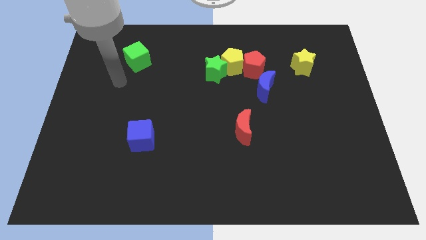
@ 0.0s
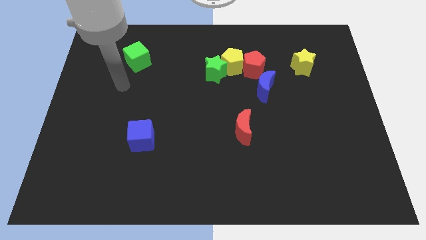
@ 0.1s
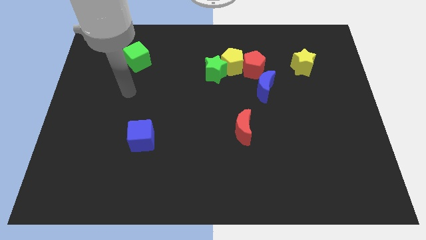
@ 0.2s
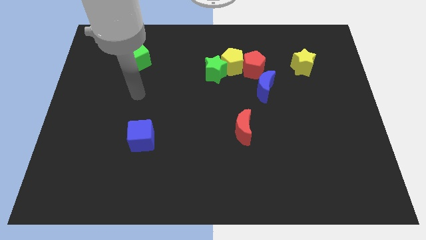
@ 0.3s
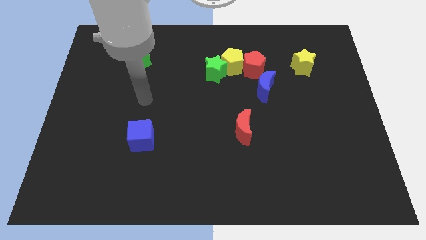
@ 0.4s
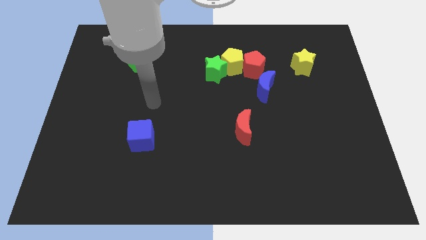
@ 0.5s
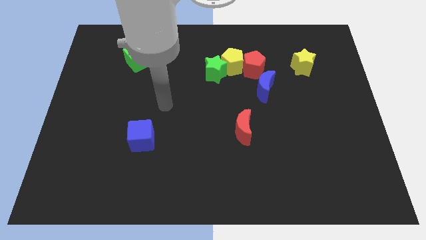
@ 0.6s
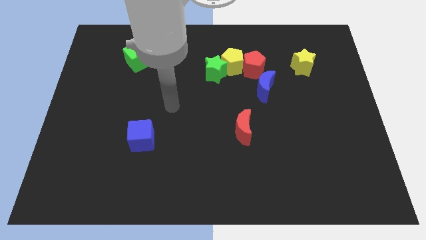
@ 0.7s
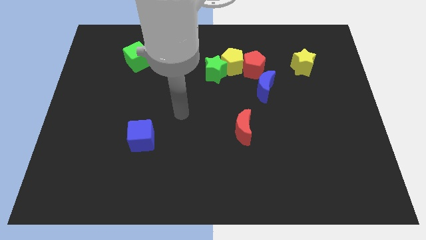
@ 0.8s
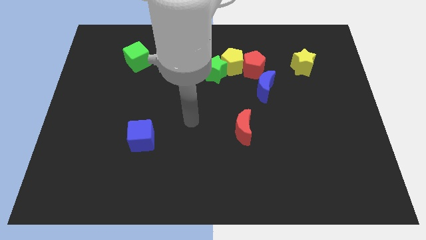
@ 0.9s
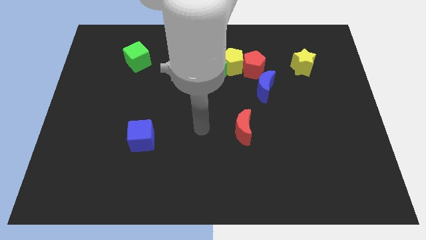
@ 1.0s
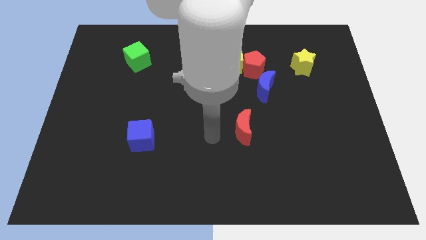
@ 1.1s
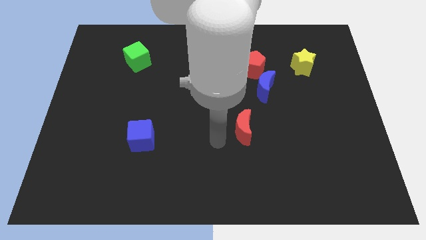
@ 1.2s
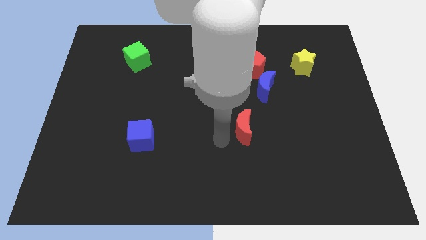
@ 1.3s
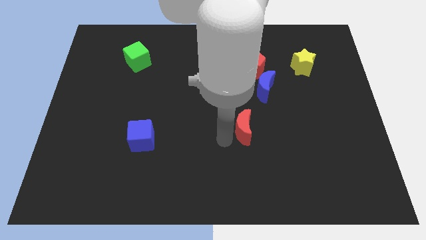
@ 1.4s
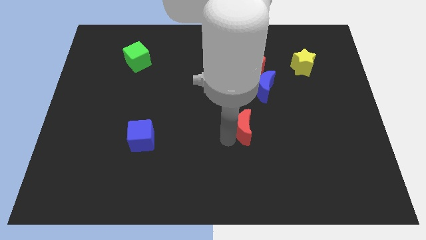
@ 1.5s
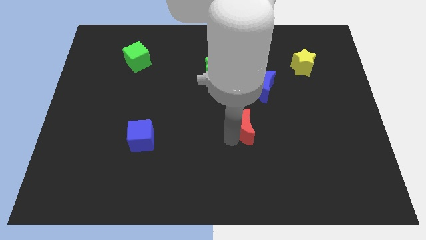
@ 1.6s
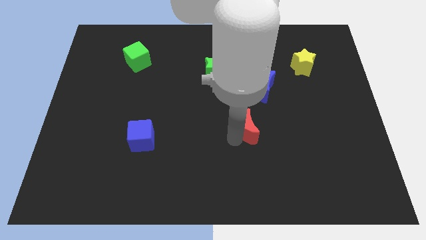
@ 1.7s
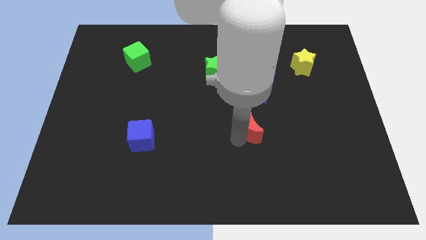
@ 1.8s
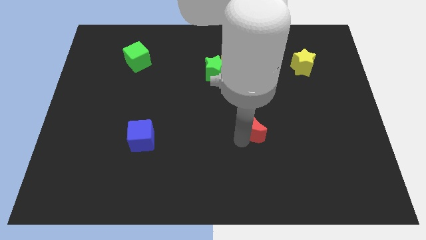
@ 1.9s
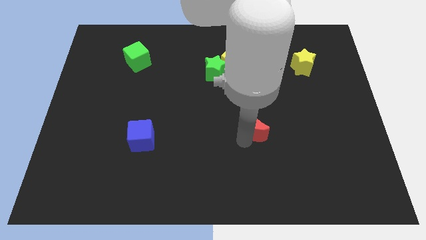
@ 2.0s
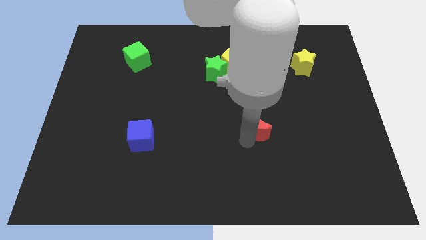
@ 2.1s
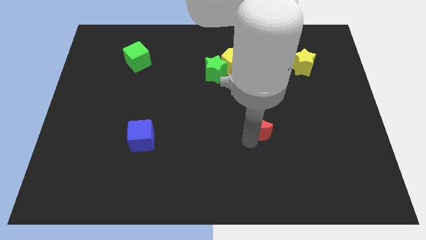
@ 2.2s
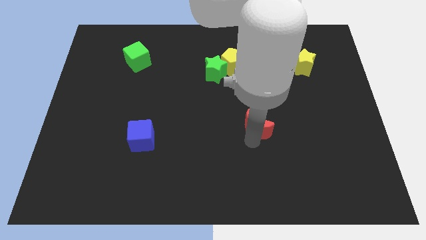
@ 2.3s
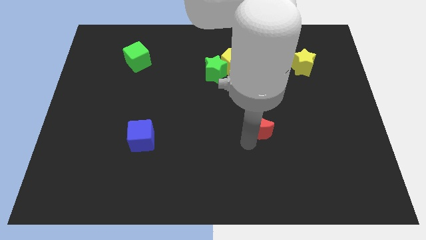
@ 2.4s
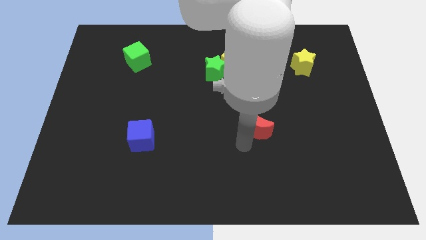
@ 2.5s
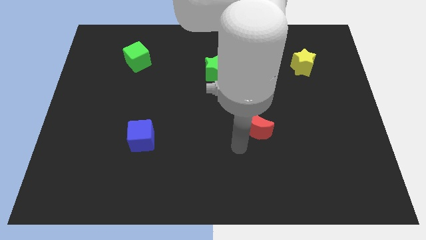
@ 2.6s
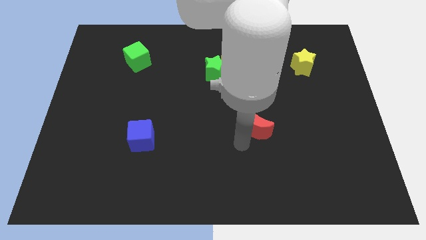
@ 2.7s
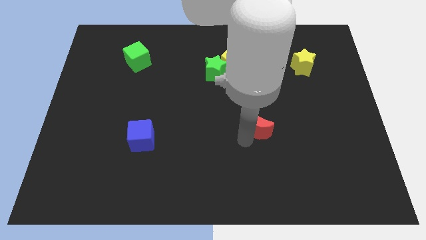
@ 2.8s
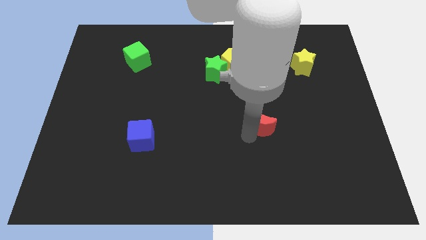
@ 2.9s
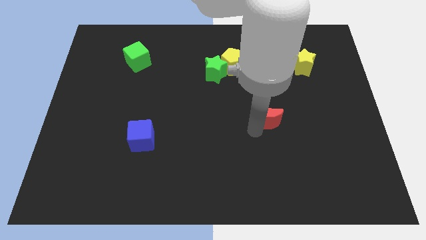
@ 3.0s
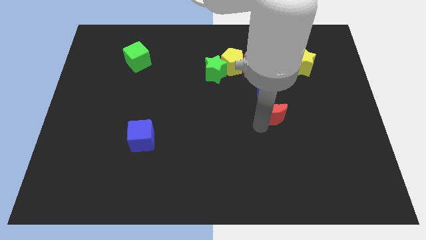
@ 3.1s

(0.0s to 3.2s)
slide the red moon a little bit up and to the right

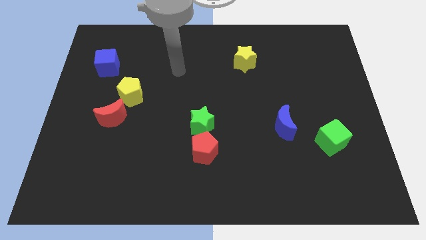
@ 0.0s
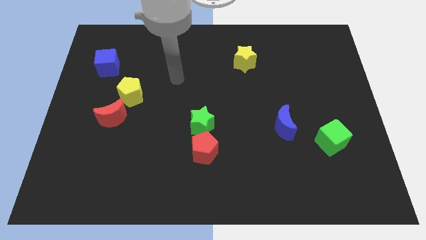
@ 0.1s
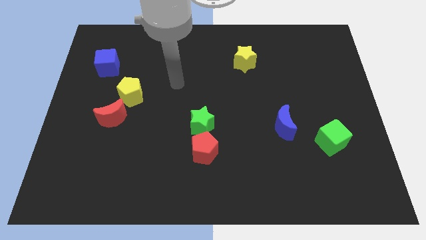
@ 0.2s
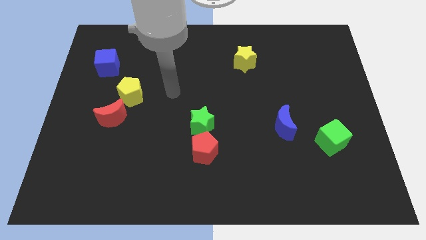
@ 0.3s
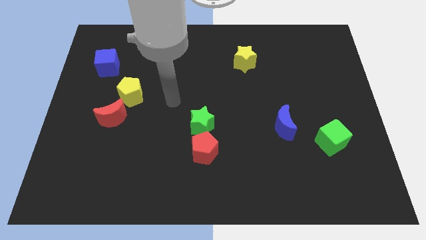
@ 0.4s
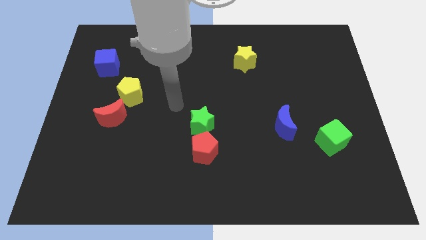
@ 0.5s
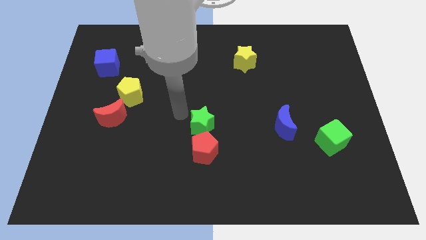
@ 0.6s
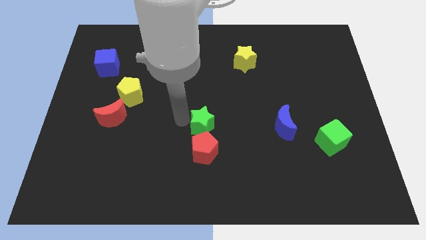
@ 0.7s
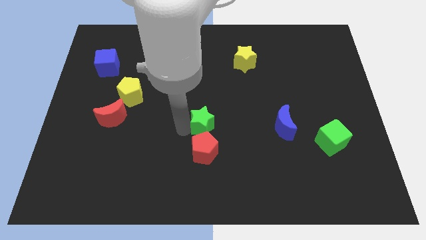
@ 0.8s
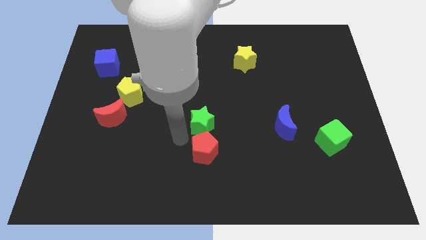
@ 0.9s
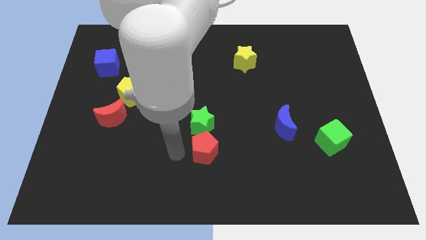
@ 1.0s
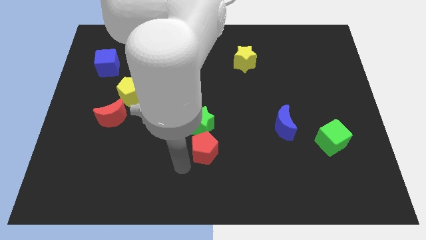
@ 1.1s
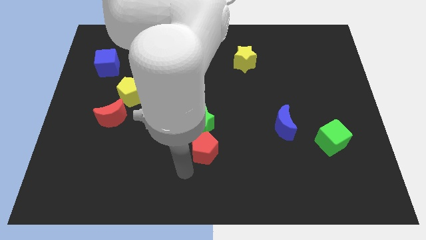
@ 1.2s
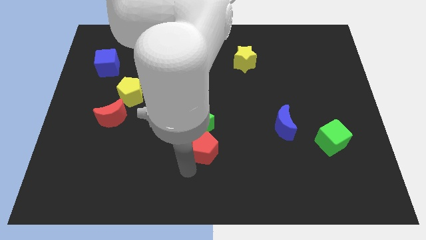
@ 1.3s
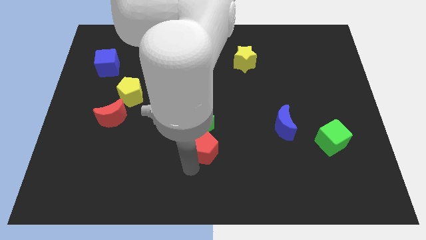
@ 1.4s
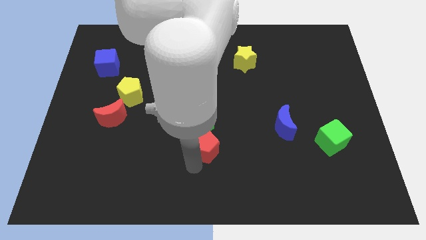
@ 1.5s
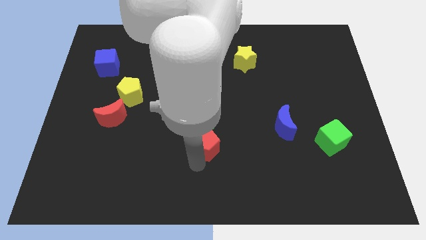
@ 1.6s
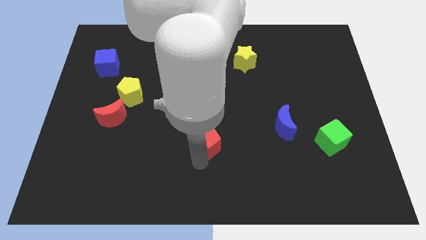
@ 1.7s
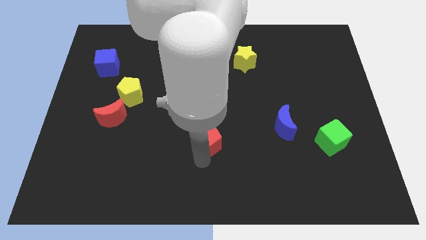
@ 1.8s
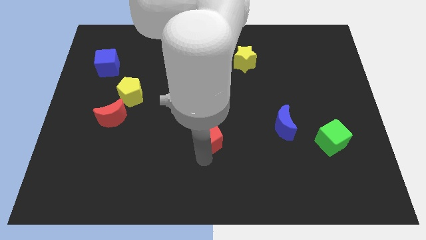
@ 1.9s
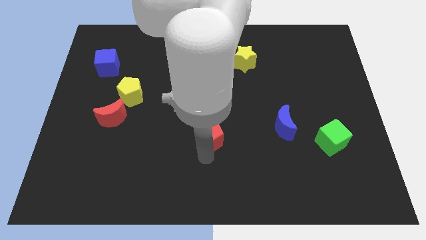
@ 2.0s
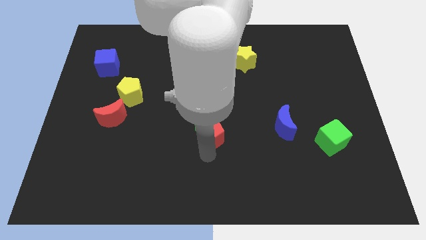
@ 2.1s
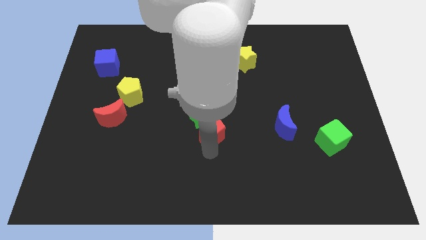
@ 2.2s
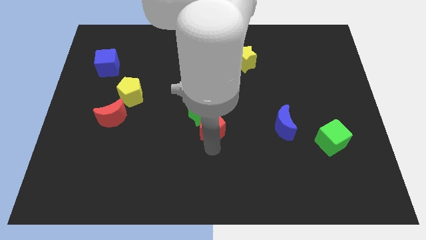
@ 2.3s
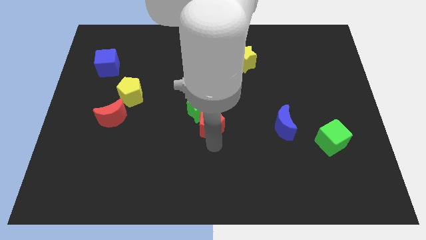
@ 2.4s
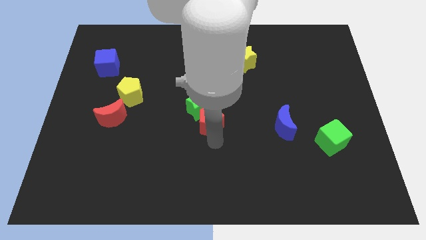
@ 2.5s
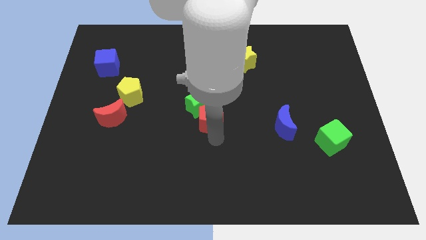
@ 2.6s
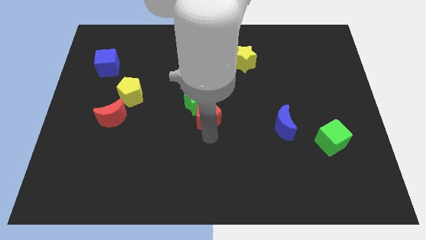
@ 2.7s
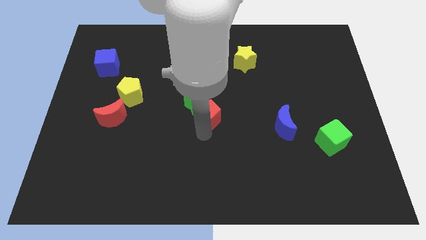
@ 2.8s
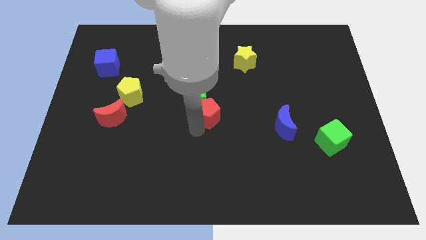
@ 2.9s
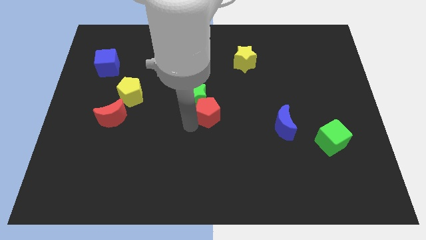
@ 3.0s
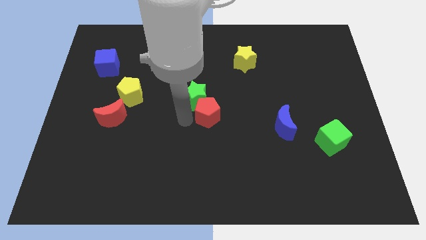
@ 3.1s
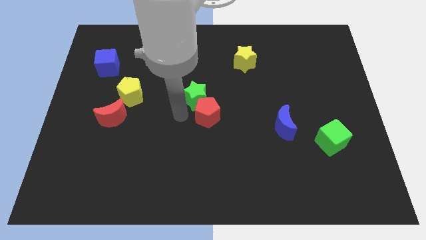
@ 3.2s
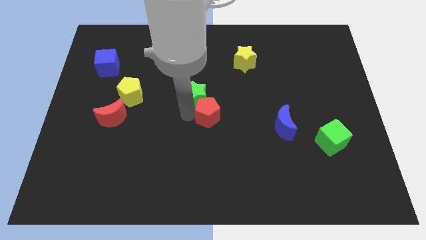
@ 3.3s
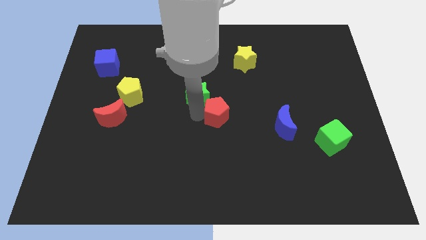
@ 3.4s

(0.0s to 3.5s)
slide the red pentagon somewhat upwards and to the right

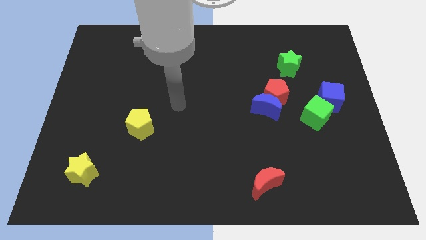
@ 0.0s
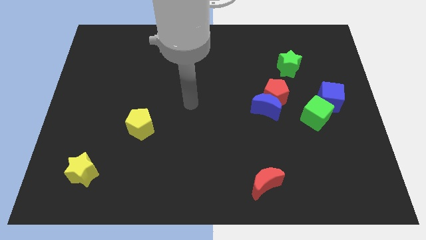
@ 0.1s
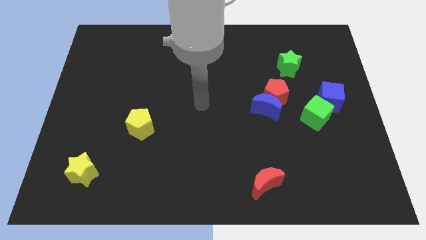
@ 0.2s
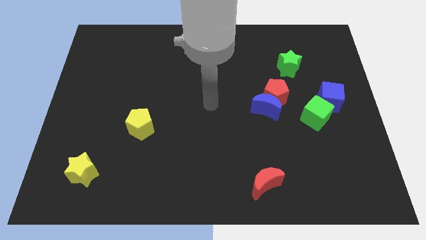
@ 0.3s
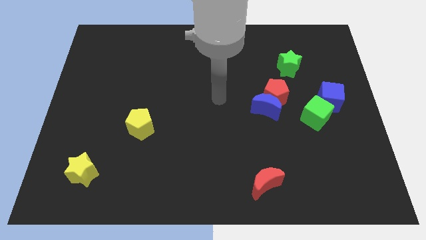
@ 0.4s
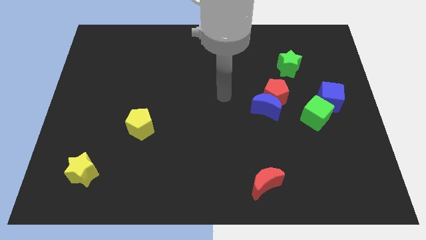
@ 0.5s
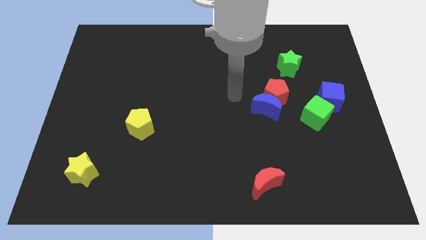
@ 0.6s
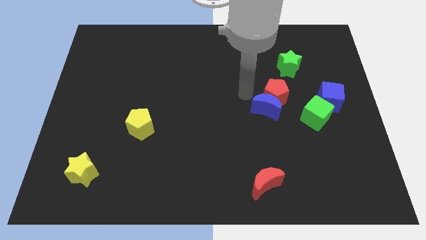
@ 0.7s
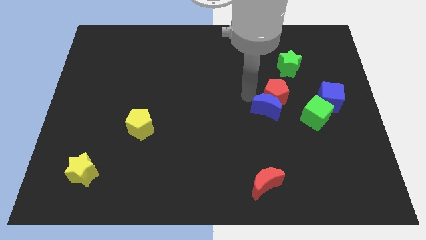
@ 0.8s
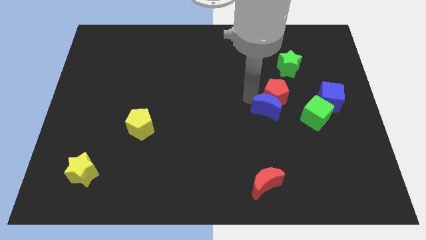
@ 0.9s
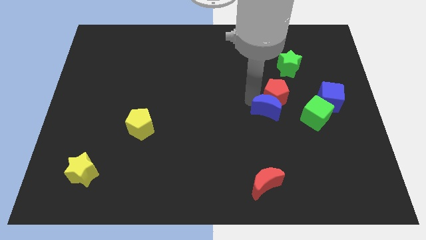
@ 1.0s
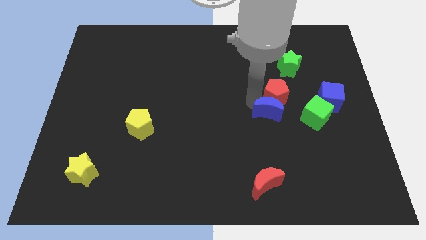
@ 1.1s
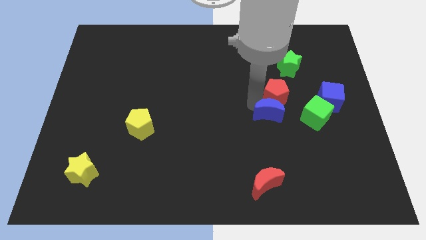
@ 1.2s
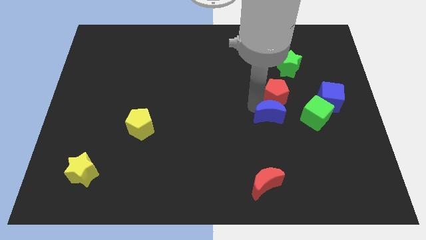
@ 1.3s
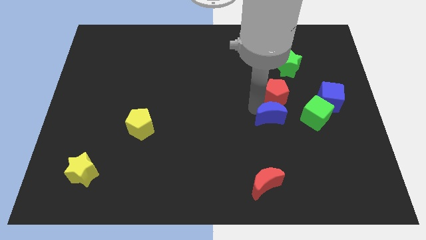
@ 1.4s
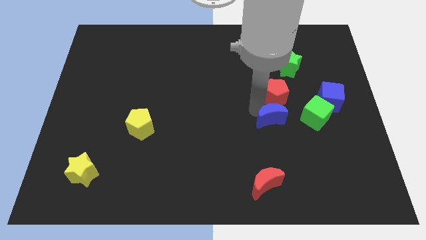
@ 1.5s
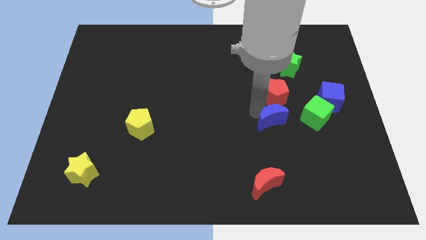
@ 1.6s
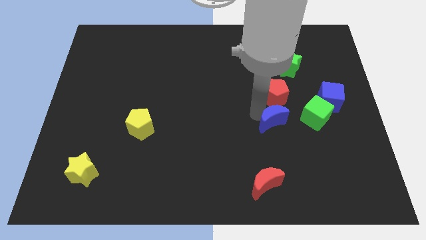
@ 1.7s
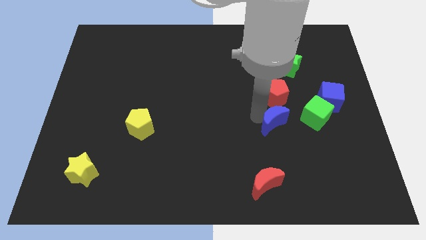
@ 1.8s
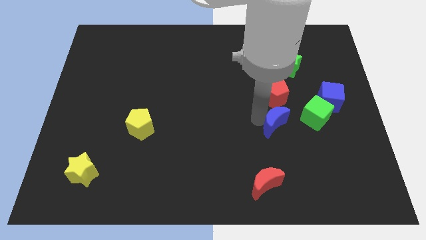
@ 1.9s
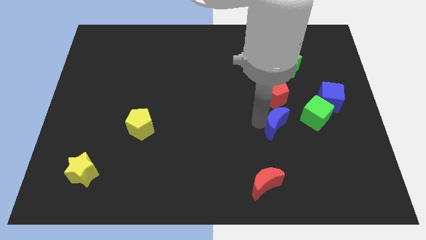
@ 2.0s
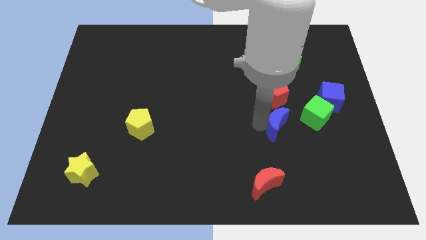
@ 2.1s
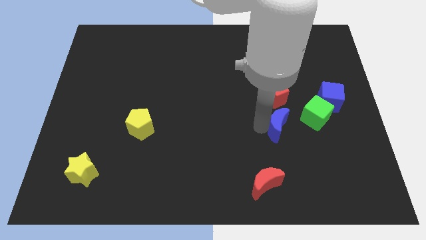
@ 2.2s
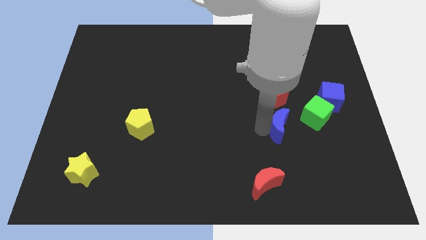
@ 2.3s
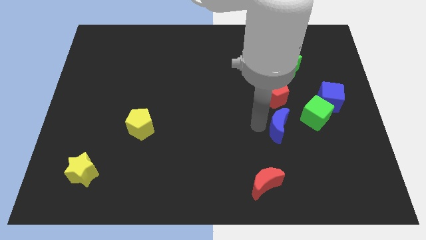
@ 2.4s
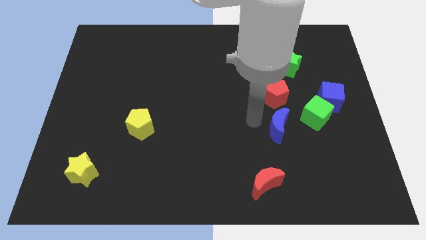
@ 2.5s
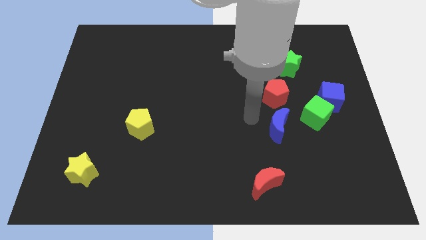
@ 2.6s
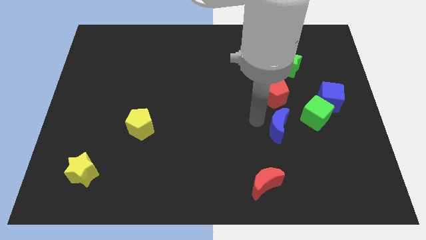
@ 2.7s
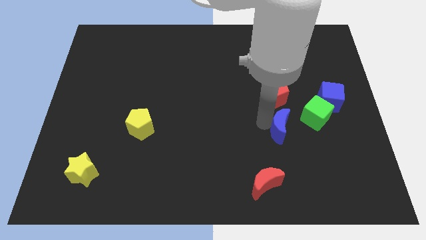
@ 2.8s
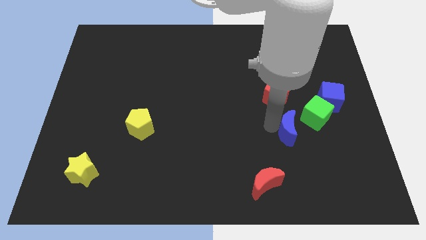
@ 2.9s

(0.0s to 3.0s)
push the blue moon slightly diagonally downwards and to the right
